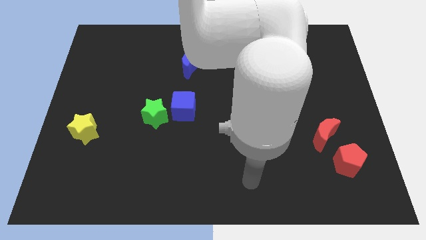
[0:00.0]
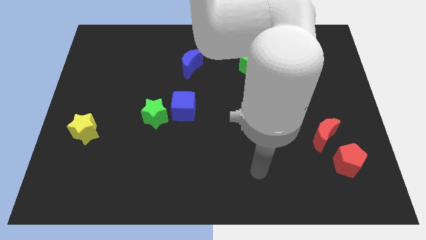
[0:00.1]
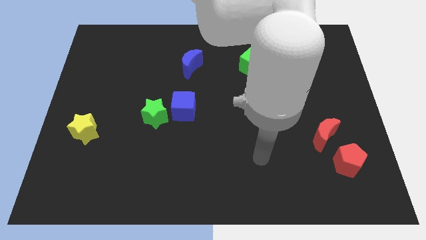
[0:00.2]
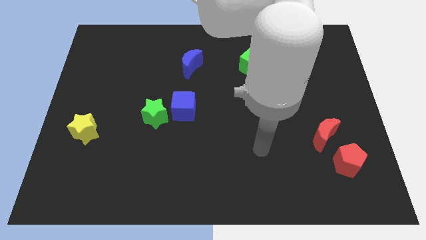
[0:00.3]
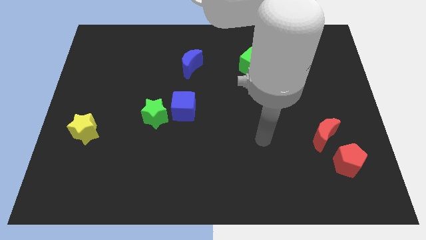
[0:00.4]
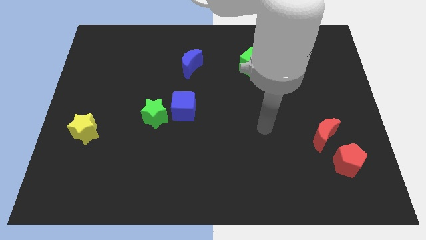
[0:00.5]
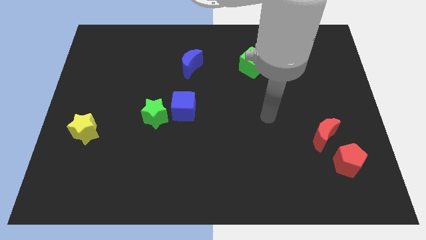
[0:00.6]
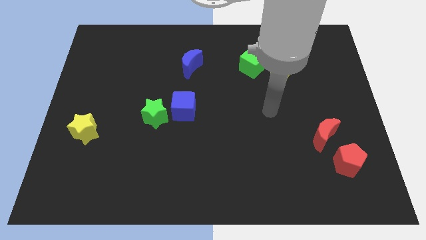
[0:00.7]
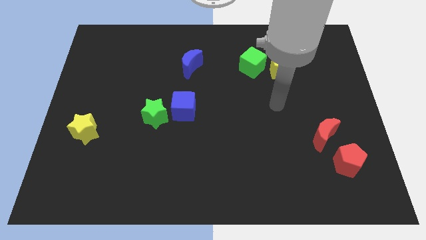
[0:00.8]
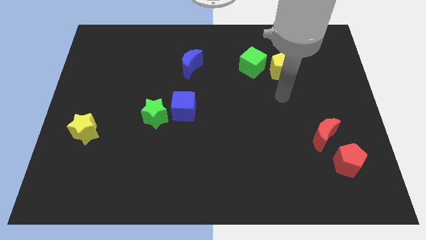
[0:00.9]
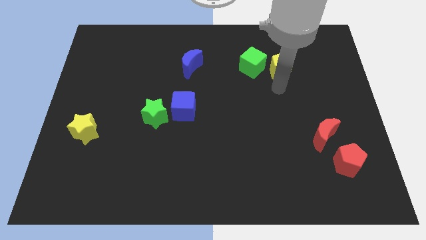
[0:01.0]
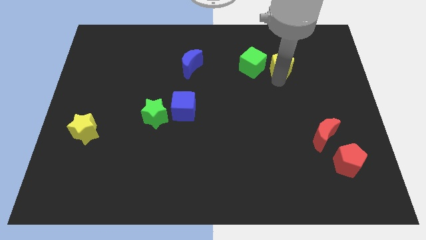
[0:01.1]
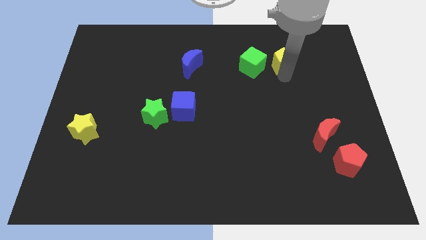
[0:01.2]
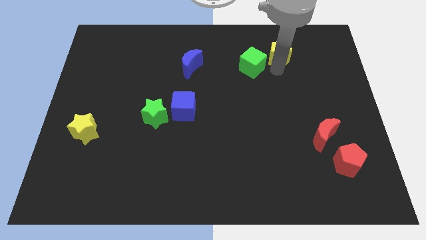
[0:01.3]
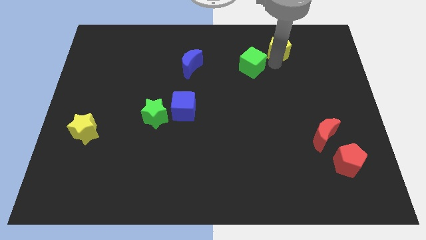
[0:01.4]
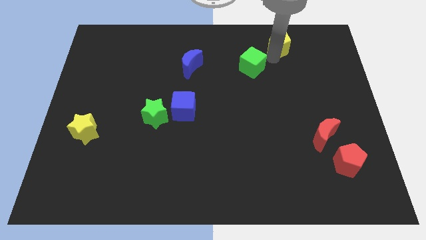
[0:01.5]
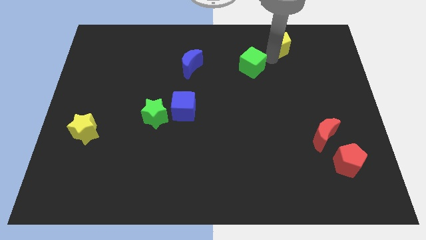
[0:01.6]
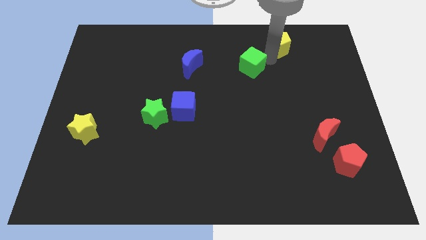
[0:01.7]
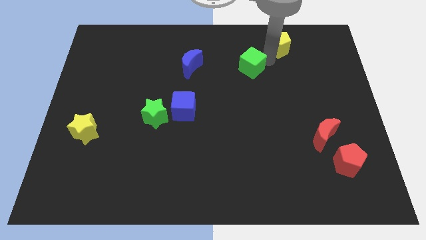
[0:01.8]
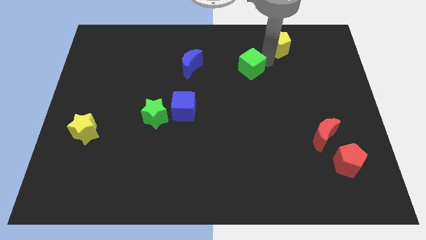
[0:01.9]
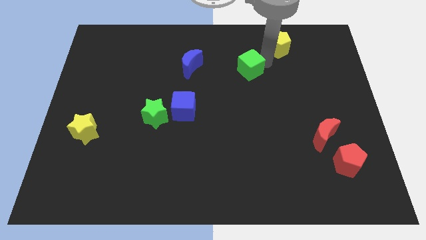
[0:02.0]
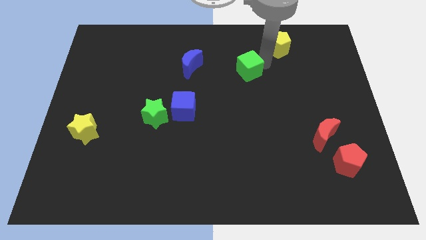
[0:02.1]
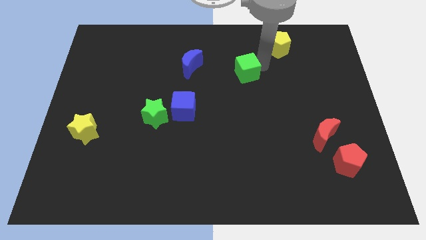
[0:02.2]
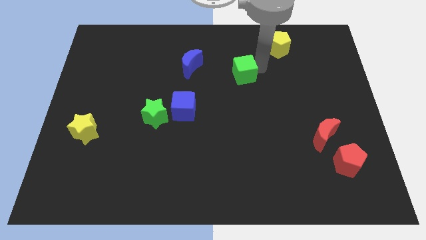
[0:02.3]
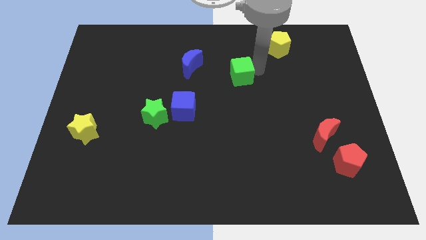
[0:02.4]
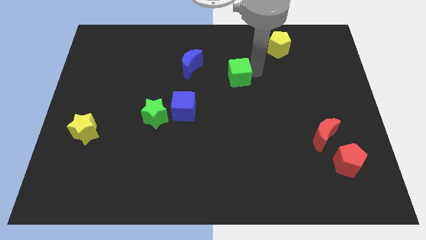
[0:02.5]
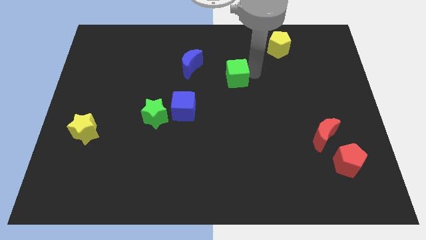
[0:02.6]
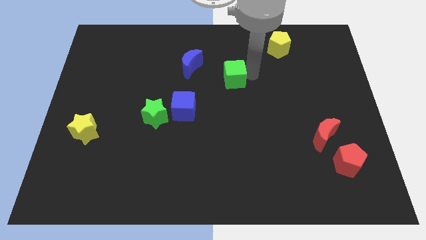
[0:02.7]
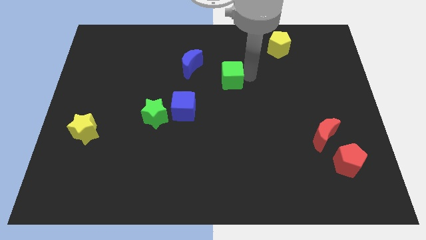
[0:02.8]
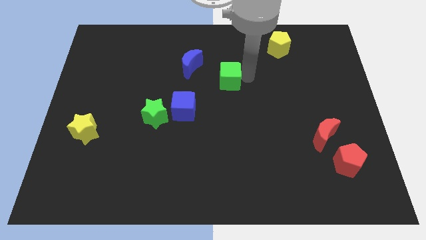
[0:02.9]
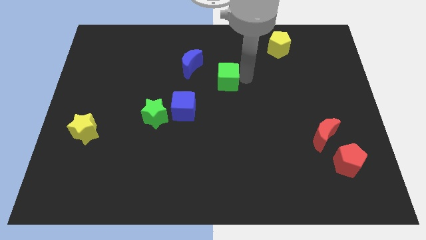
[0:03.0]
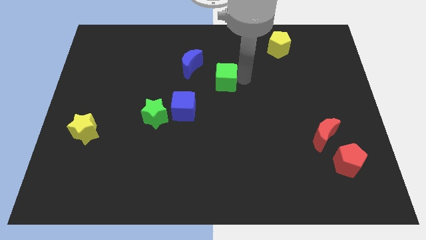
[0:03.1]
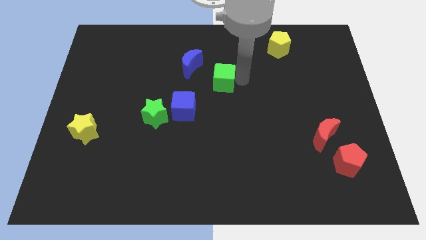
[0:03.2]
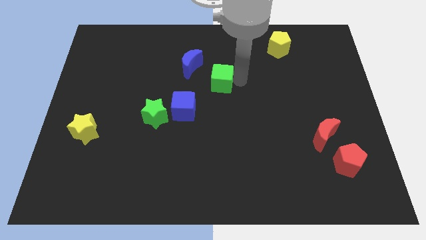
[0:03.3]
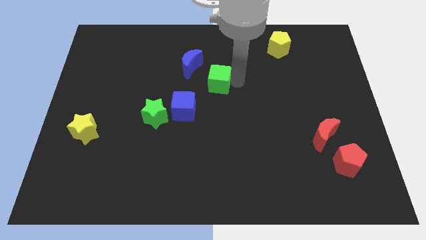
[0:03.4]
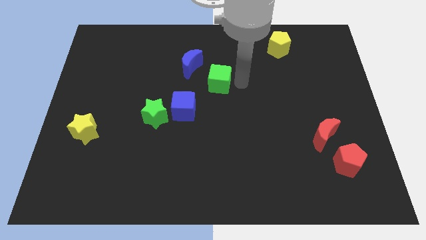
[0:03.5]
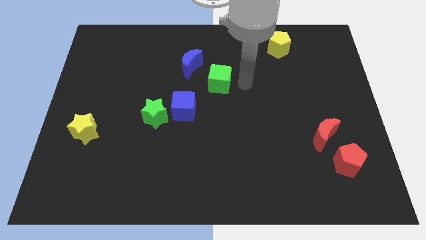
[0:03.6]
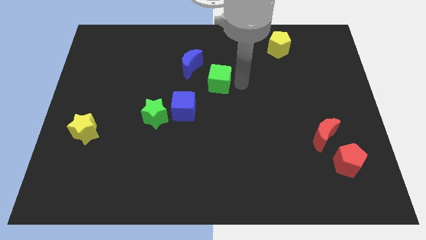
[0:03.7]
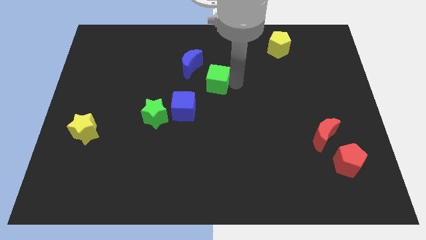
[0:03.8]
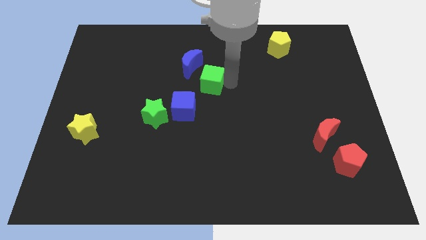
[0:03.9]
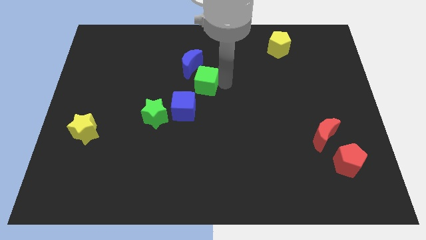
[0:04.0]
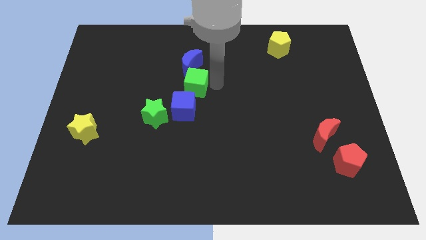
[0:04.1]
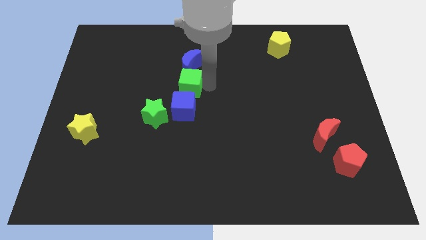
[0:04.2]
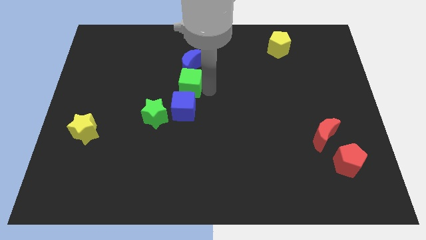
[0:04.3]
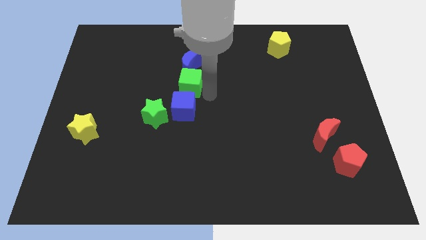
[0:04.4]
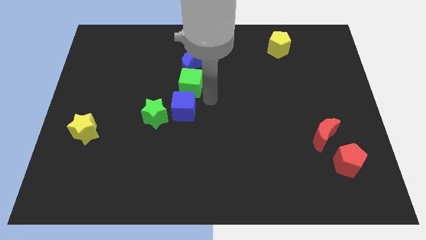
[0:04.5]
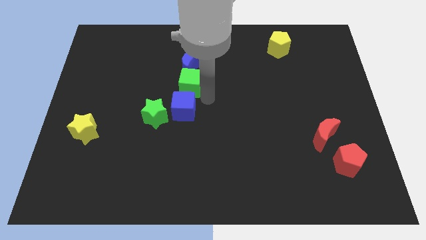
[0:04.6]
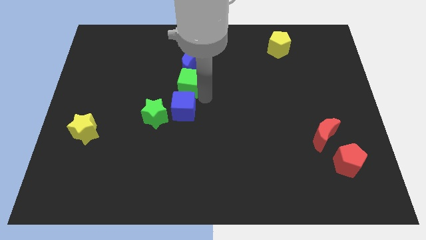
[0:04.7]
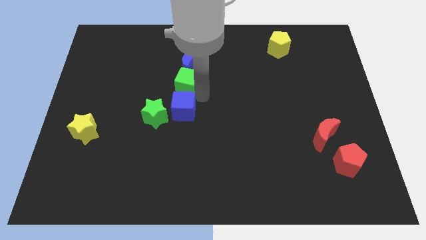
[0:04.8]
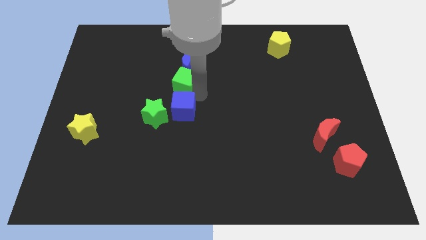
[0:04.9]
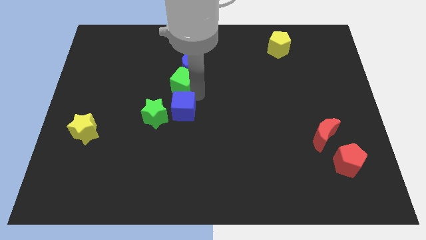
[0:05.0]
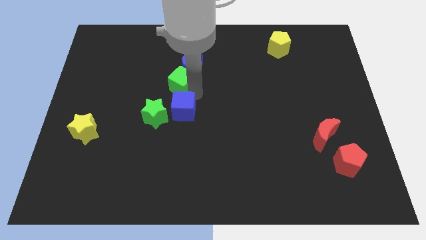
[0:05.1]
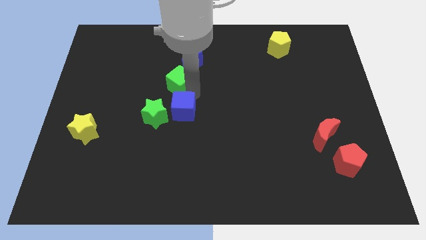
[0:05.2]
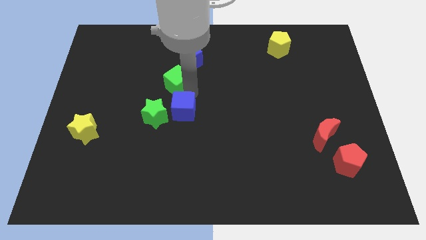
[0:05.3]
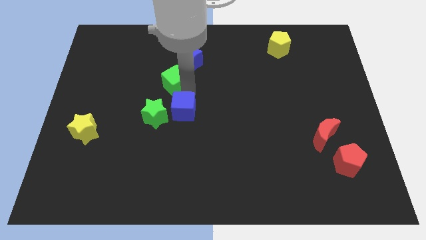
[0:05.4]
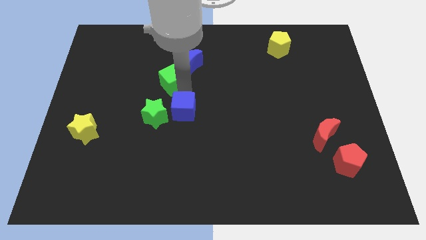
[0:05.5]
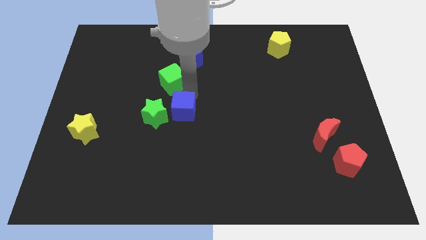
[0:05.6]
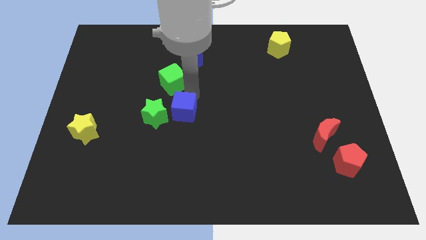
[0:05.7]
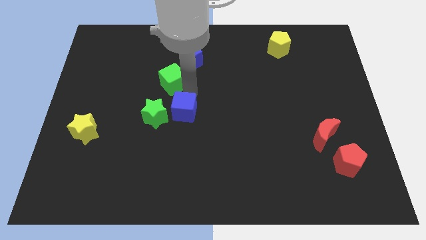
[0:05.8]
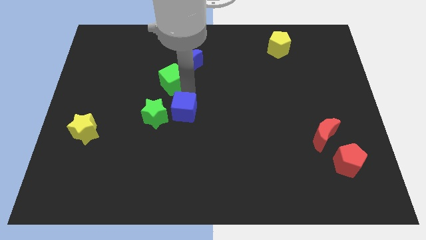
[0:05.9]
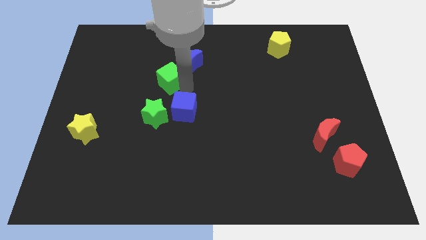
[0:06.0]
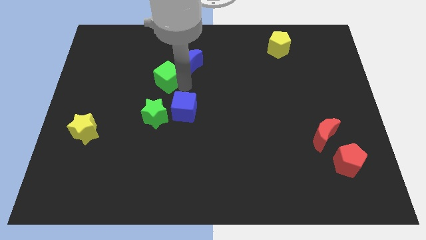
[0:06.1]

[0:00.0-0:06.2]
put the green cube to the left side of the blue moon
